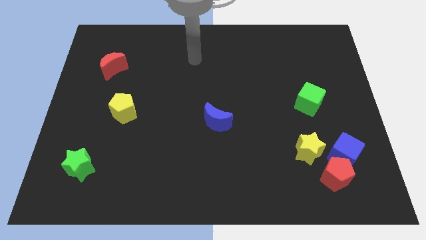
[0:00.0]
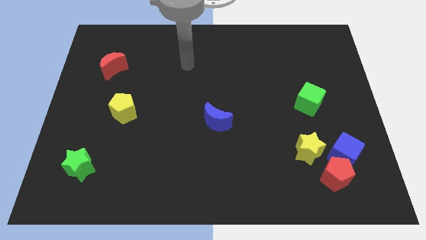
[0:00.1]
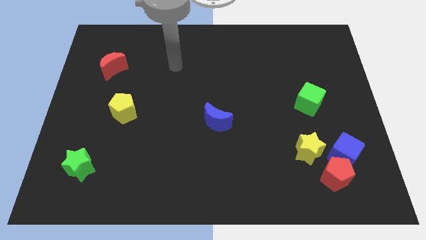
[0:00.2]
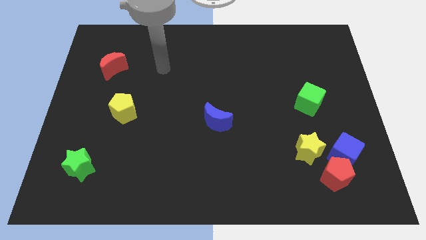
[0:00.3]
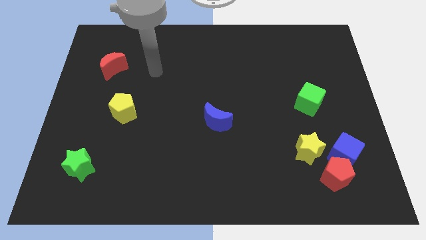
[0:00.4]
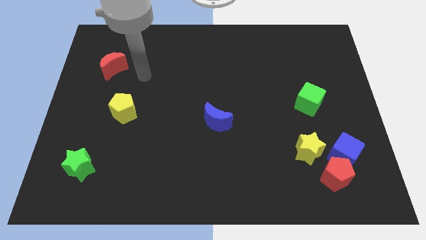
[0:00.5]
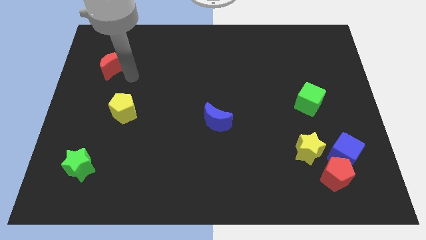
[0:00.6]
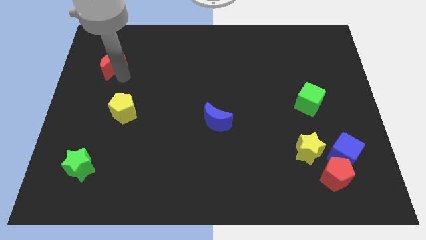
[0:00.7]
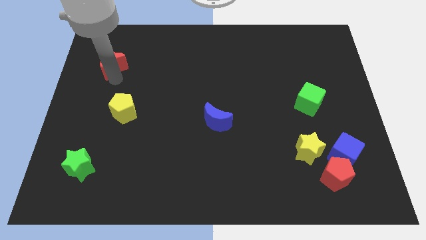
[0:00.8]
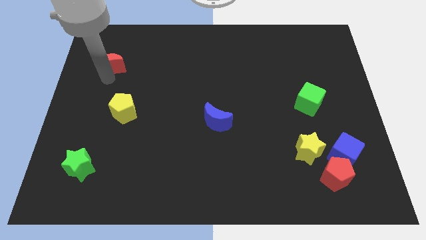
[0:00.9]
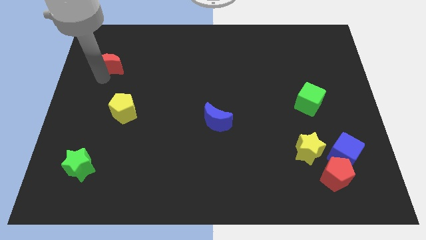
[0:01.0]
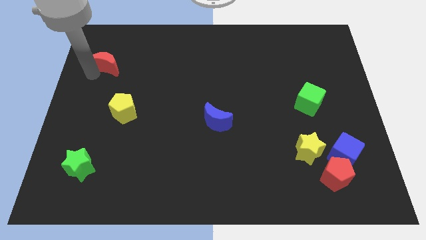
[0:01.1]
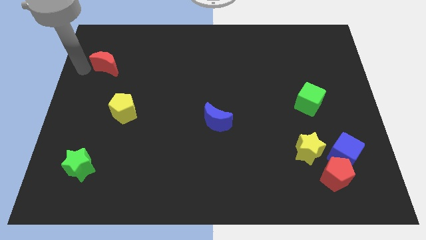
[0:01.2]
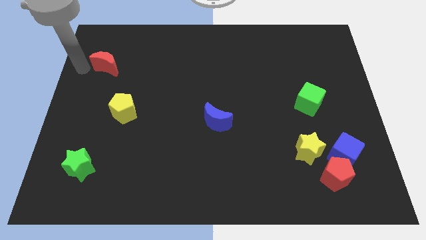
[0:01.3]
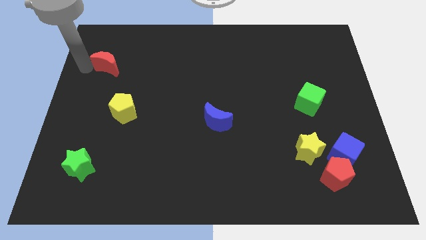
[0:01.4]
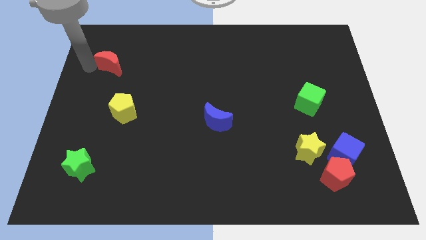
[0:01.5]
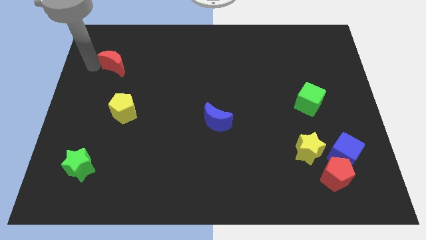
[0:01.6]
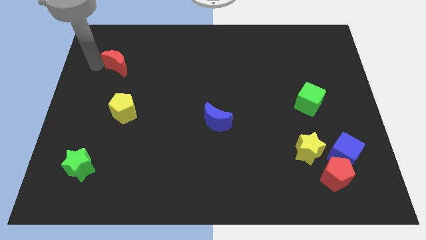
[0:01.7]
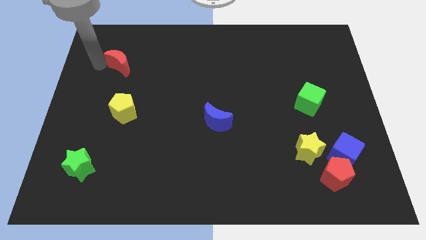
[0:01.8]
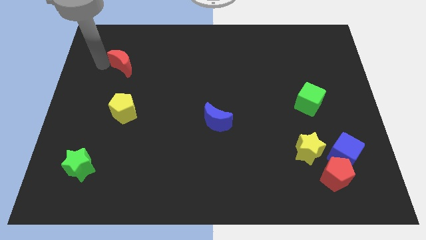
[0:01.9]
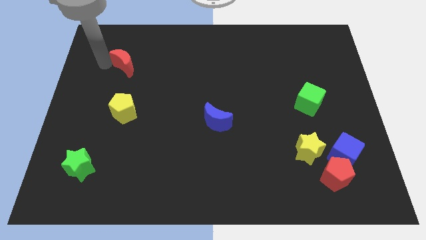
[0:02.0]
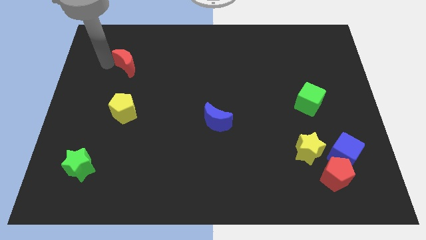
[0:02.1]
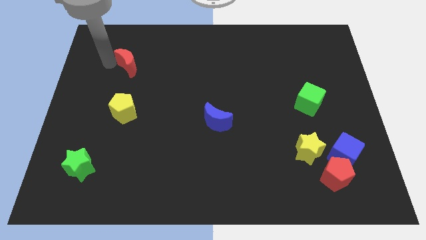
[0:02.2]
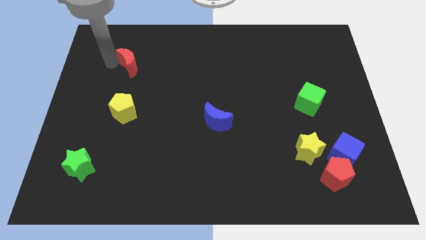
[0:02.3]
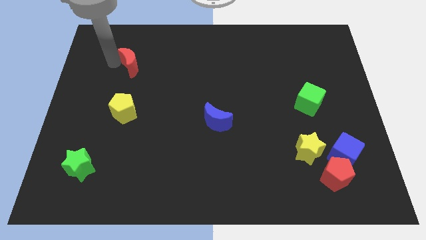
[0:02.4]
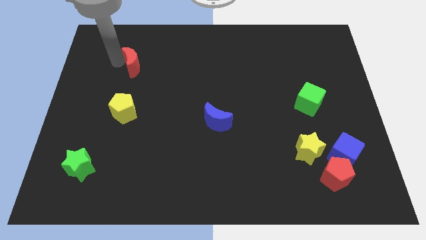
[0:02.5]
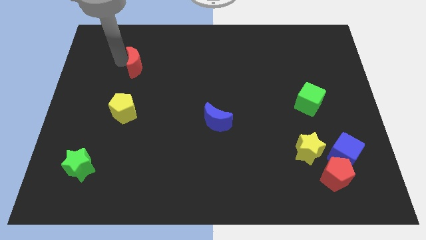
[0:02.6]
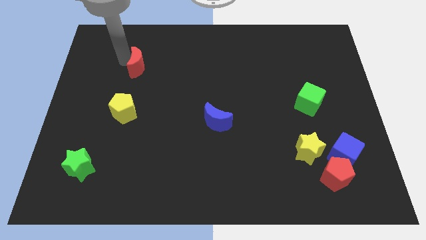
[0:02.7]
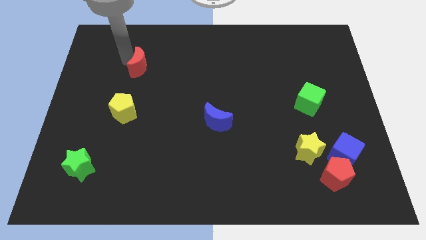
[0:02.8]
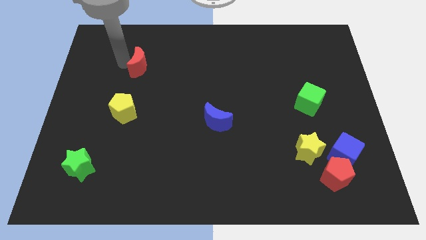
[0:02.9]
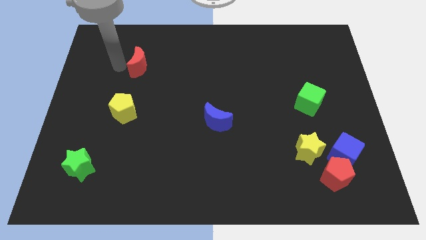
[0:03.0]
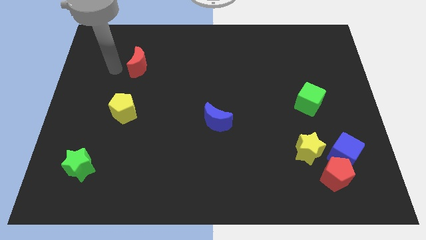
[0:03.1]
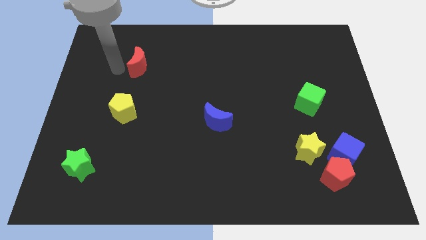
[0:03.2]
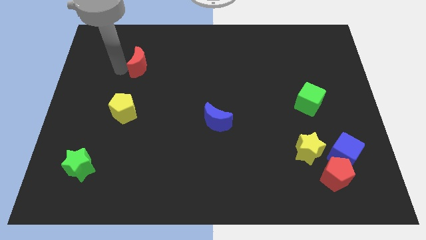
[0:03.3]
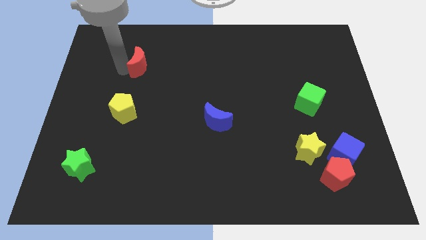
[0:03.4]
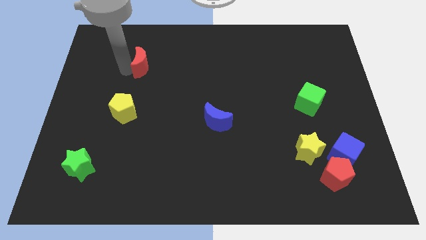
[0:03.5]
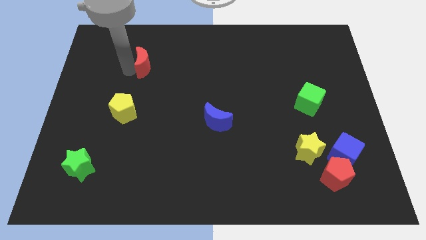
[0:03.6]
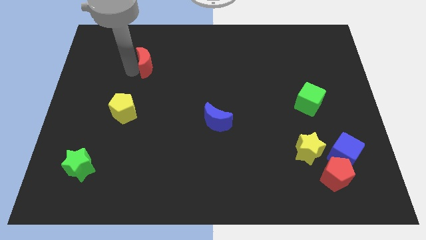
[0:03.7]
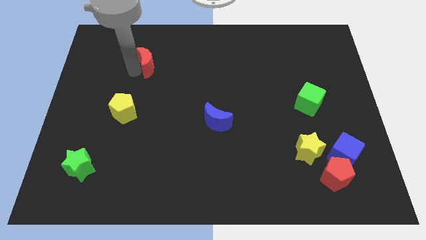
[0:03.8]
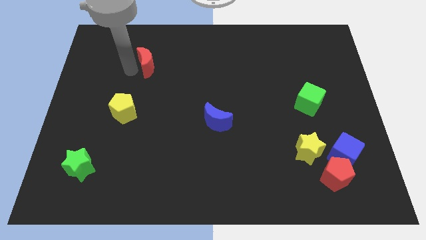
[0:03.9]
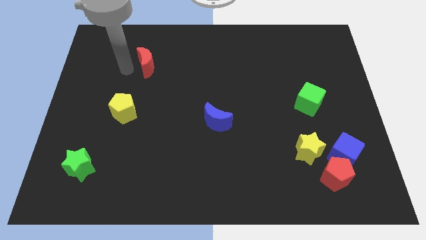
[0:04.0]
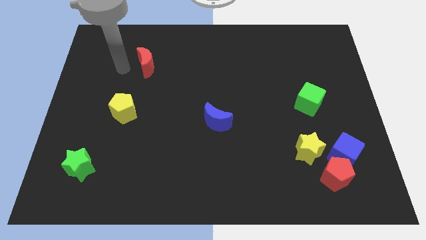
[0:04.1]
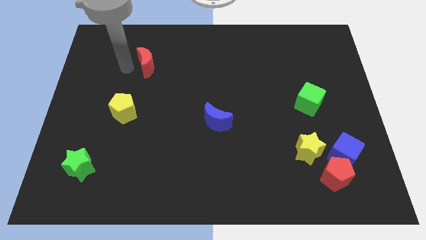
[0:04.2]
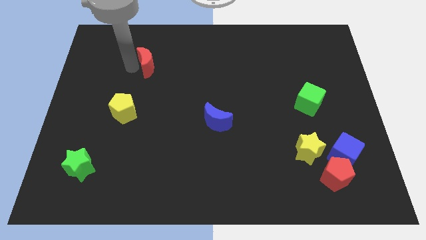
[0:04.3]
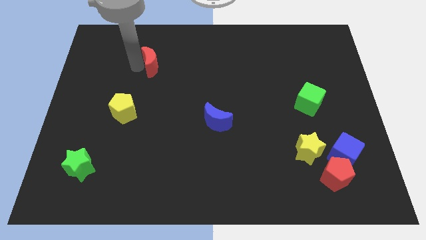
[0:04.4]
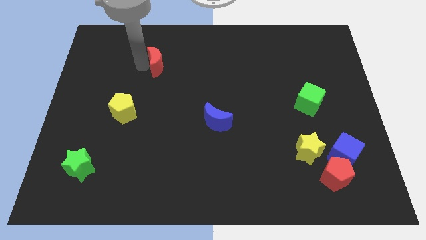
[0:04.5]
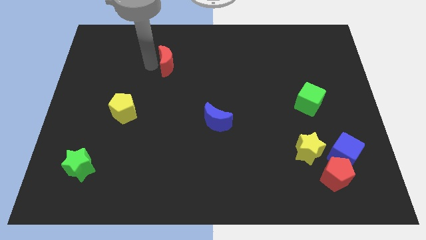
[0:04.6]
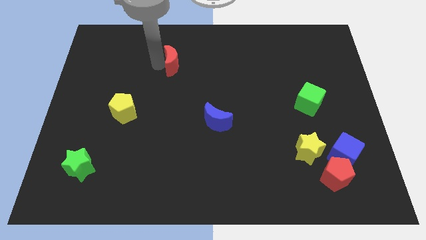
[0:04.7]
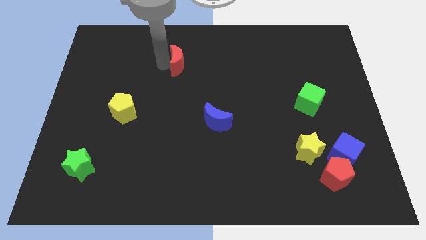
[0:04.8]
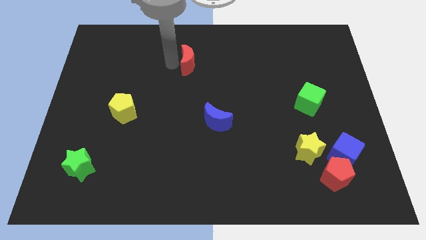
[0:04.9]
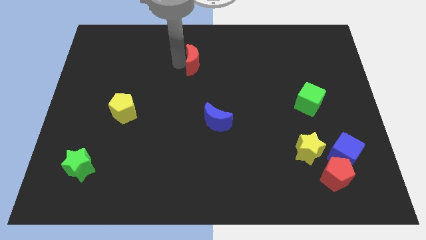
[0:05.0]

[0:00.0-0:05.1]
push the red moon right

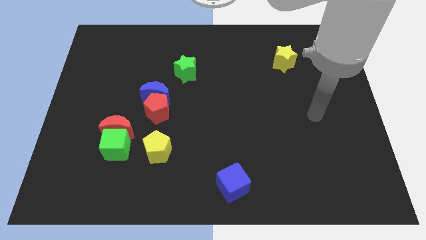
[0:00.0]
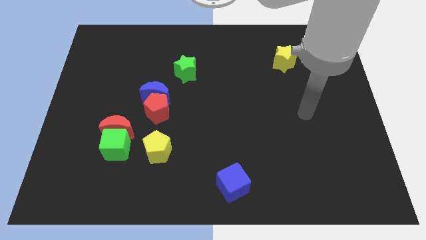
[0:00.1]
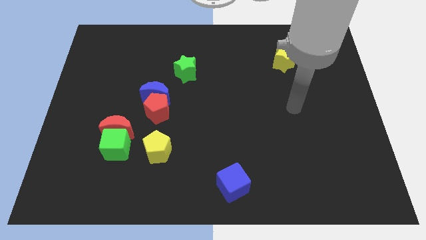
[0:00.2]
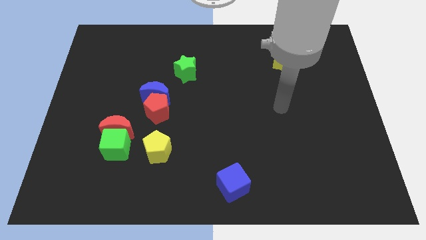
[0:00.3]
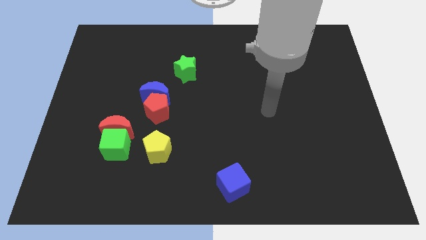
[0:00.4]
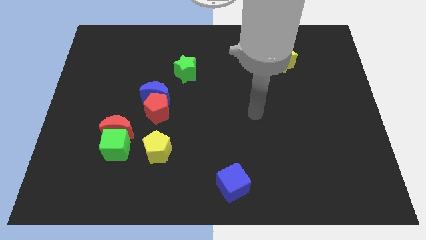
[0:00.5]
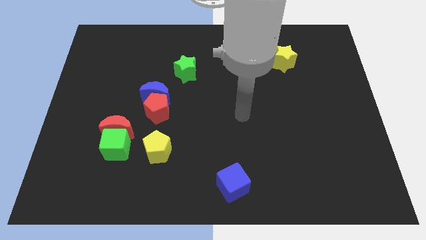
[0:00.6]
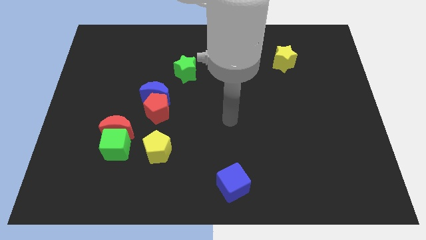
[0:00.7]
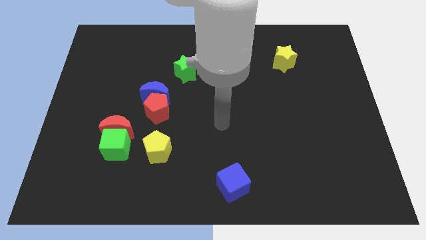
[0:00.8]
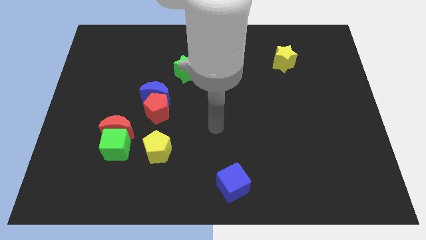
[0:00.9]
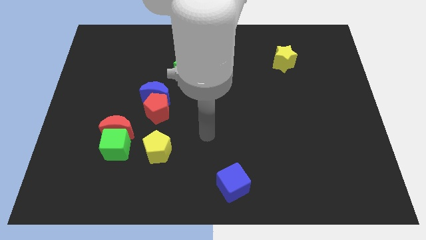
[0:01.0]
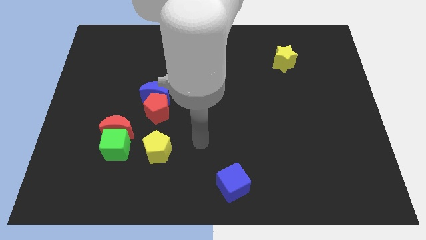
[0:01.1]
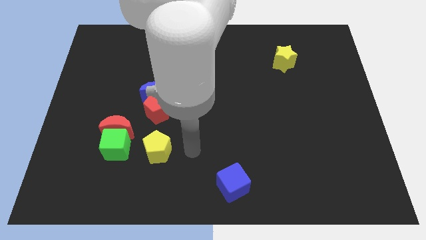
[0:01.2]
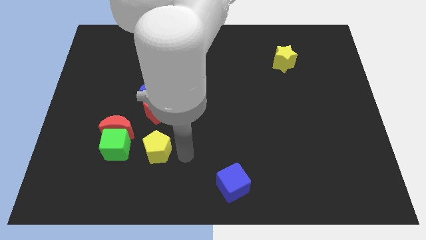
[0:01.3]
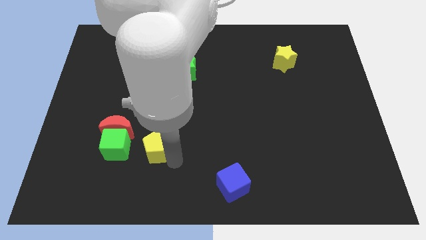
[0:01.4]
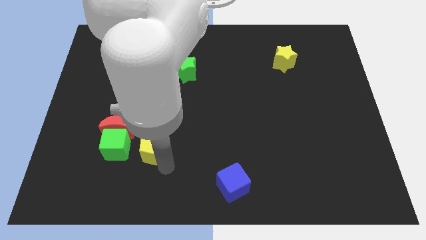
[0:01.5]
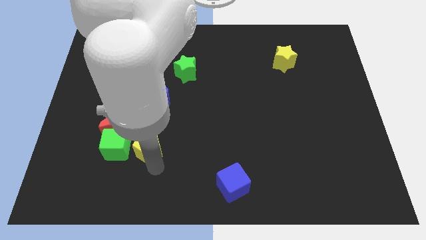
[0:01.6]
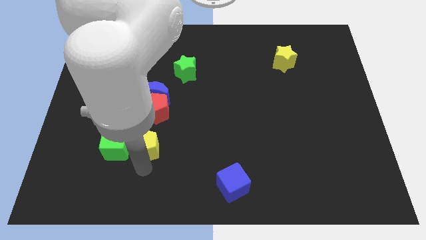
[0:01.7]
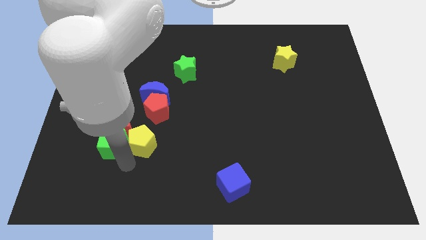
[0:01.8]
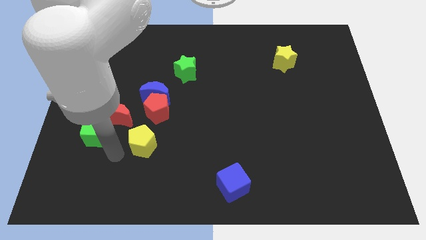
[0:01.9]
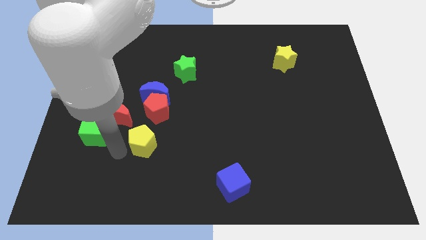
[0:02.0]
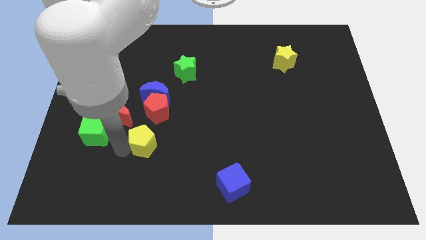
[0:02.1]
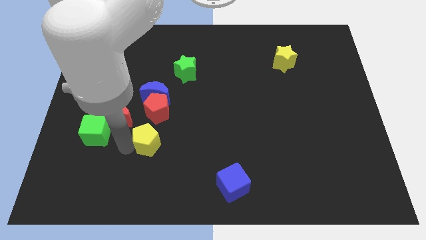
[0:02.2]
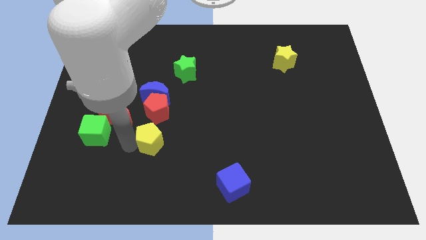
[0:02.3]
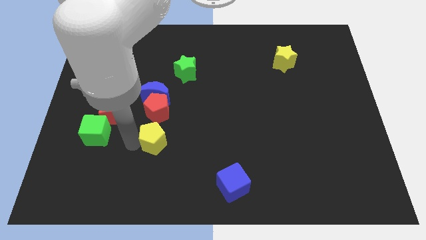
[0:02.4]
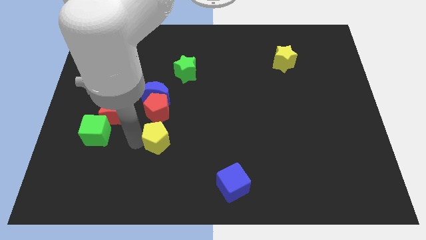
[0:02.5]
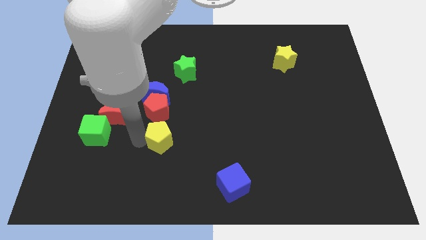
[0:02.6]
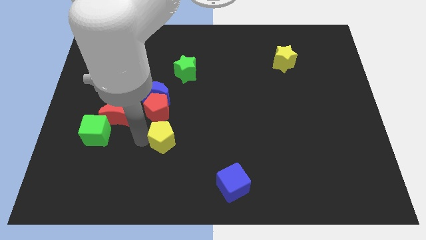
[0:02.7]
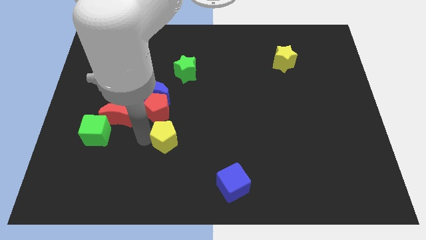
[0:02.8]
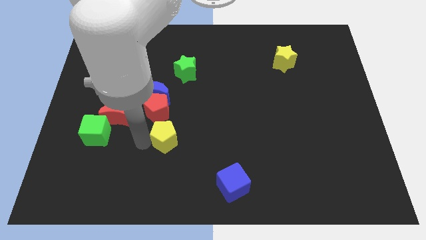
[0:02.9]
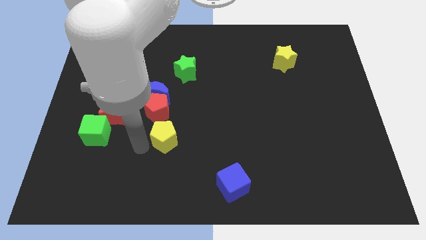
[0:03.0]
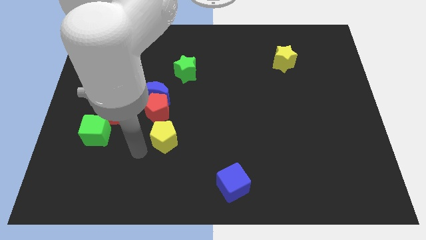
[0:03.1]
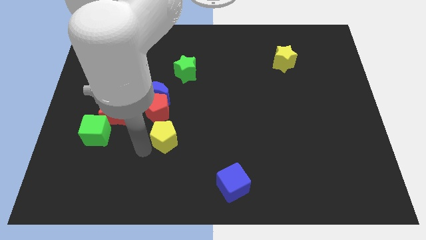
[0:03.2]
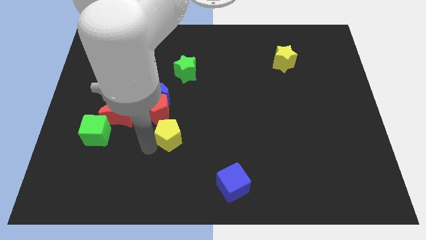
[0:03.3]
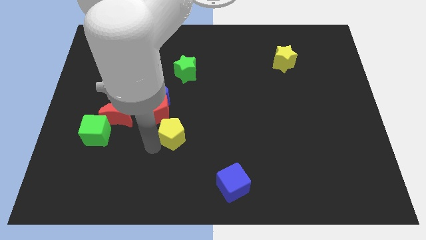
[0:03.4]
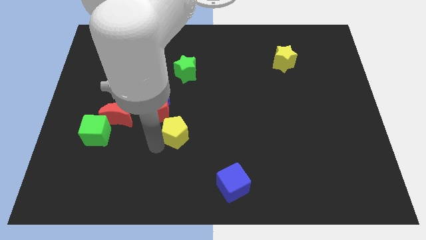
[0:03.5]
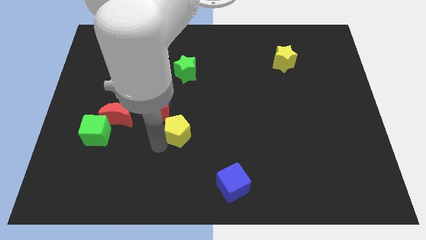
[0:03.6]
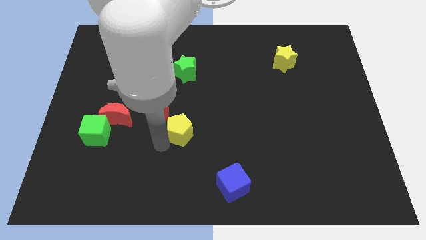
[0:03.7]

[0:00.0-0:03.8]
move the yellow pentagon slightly upwards and then right
